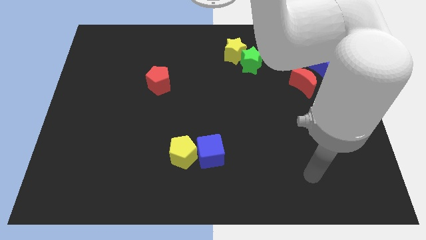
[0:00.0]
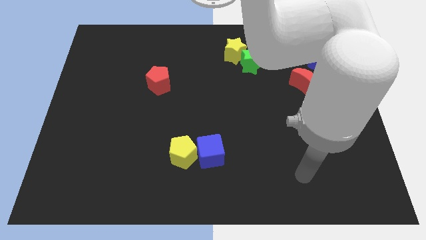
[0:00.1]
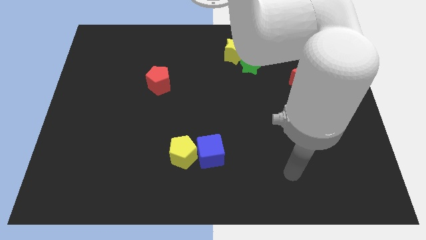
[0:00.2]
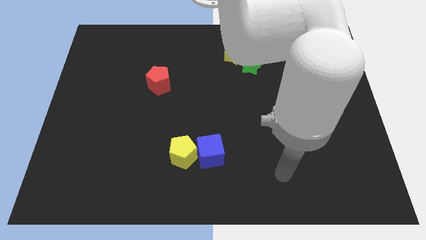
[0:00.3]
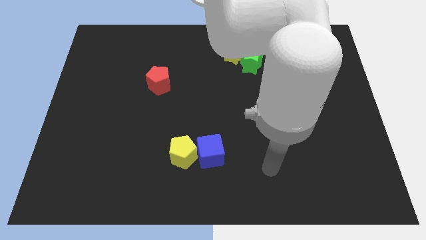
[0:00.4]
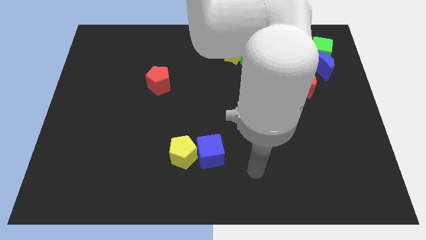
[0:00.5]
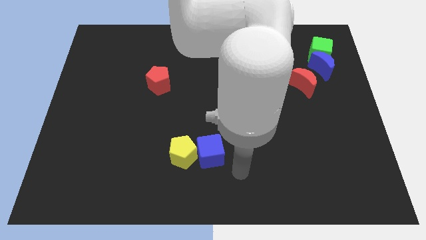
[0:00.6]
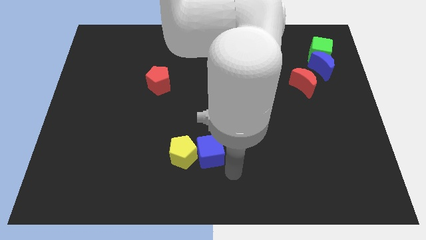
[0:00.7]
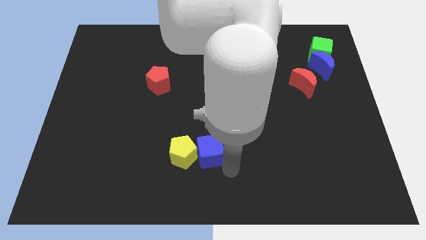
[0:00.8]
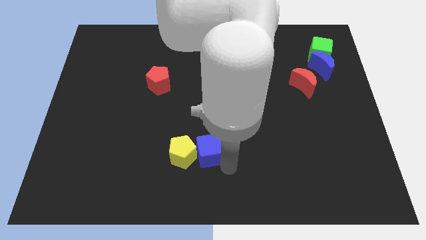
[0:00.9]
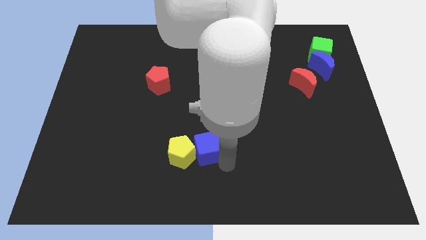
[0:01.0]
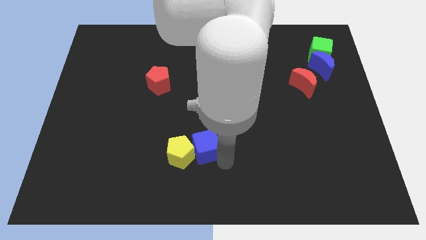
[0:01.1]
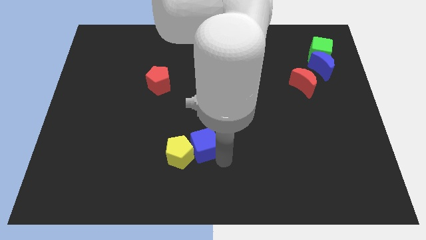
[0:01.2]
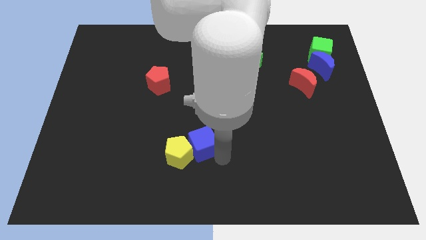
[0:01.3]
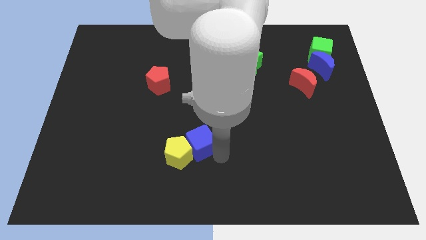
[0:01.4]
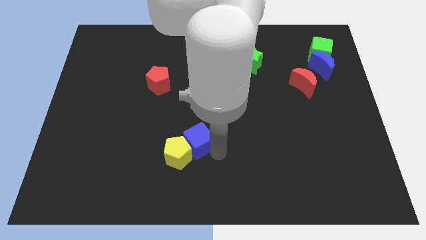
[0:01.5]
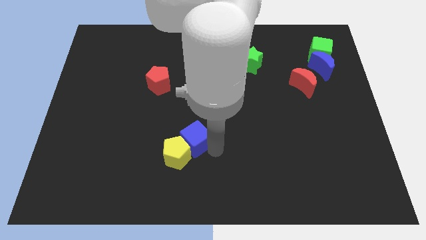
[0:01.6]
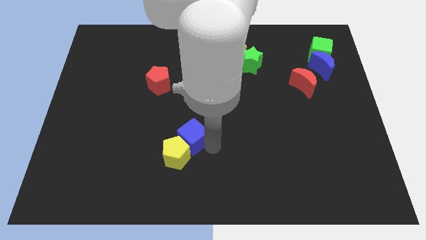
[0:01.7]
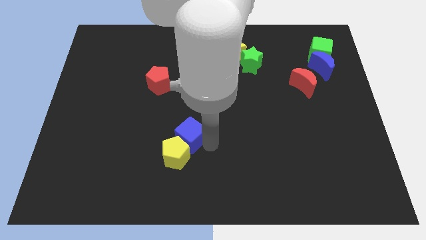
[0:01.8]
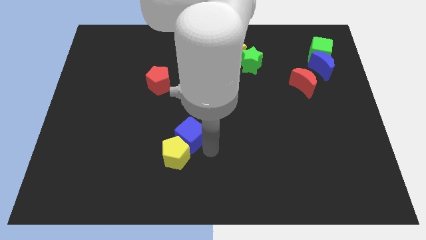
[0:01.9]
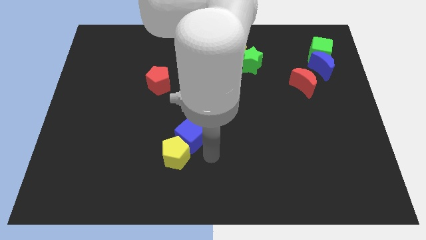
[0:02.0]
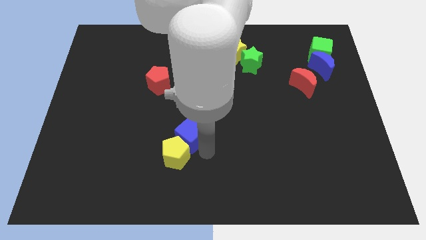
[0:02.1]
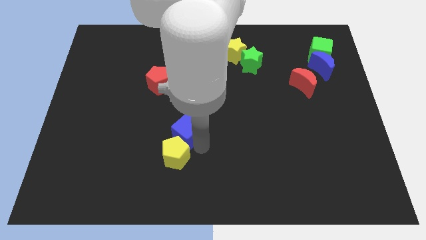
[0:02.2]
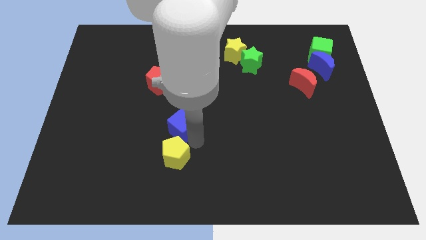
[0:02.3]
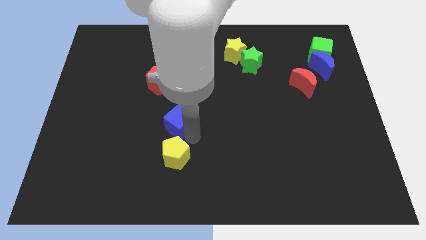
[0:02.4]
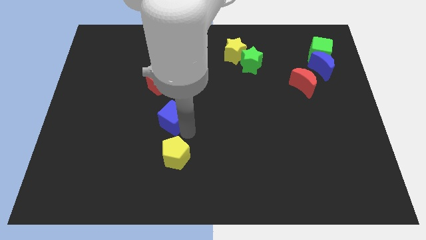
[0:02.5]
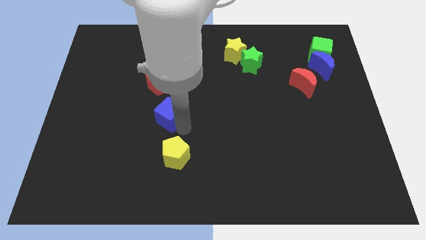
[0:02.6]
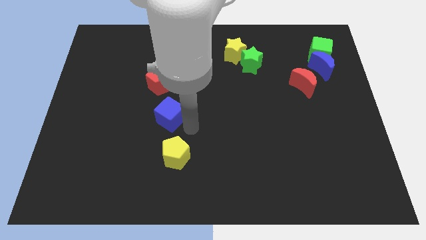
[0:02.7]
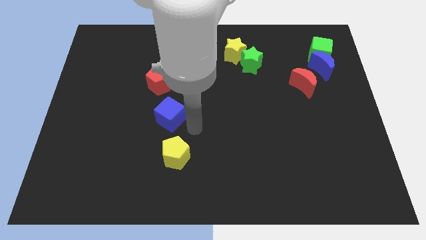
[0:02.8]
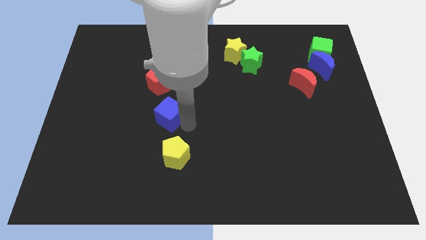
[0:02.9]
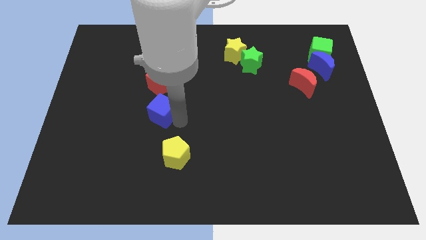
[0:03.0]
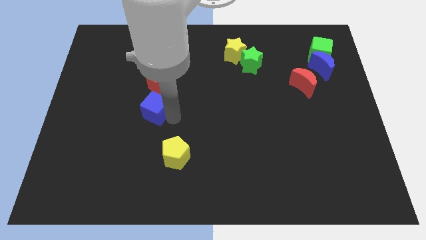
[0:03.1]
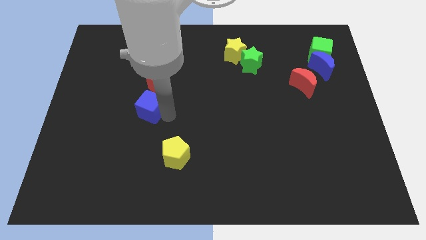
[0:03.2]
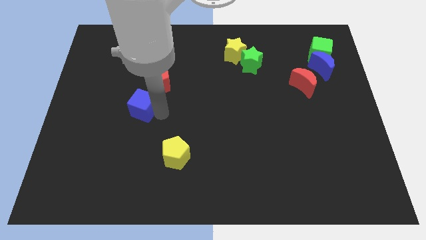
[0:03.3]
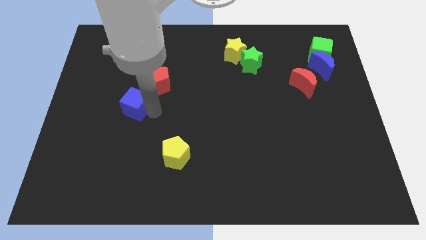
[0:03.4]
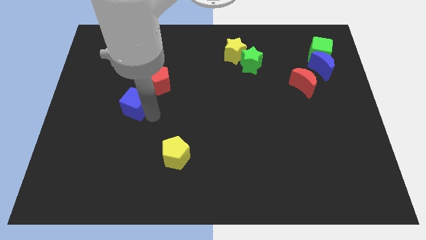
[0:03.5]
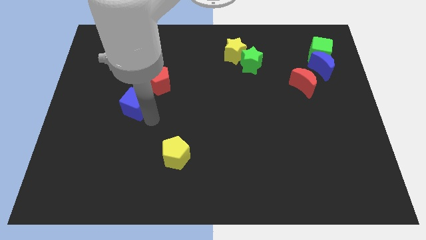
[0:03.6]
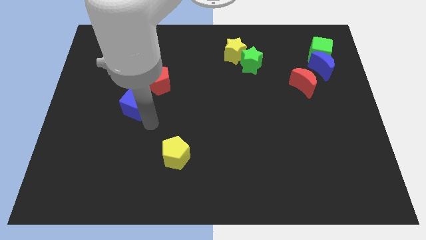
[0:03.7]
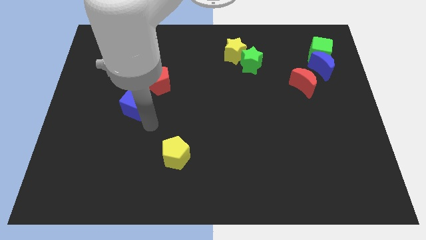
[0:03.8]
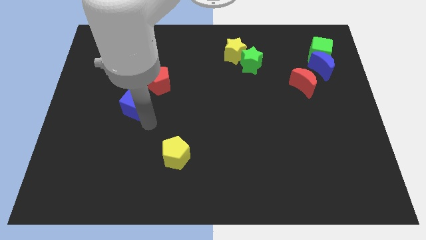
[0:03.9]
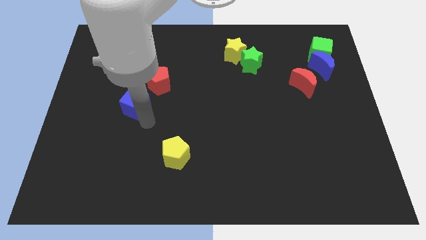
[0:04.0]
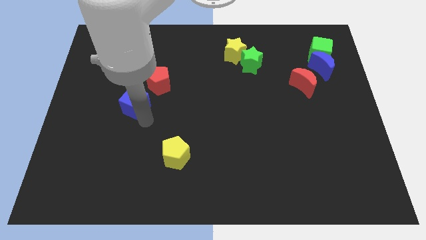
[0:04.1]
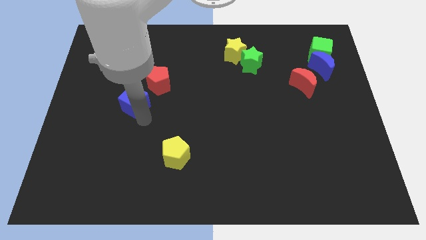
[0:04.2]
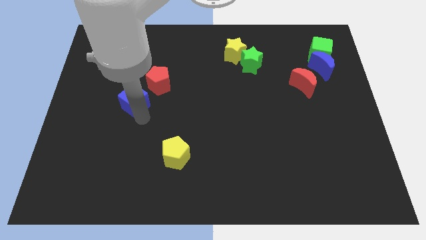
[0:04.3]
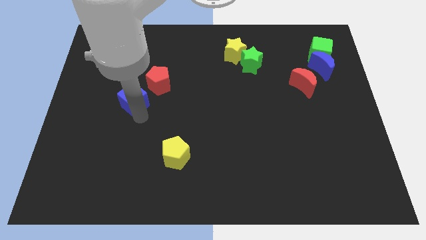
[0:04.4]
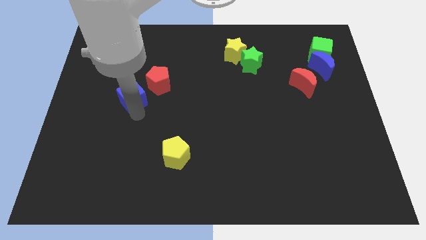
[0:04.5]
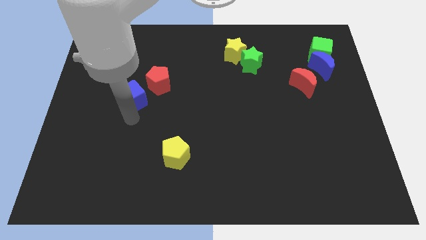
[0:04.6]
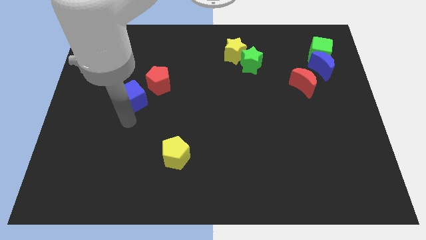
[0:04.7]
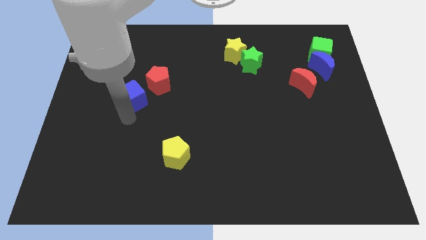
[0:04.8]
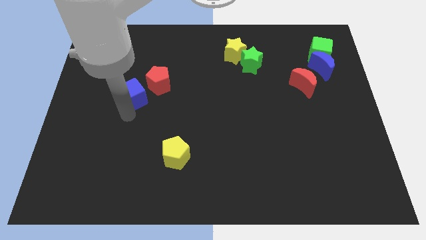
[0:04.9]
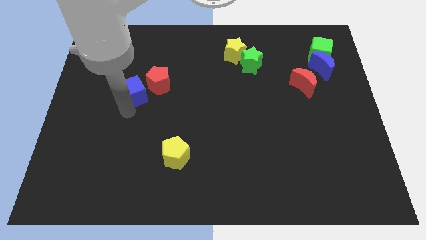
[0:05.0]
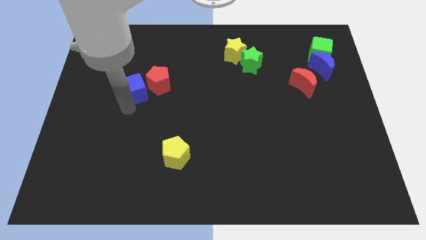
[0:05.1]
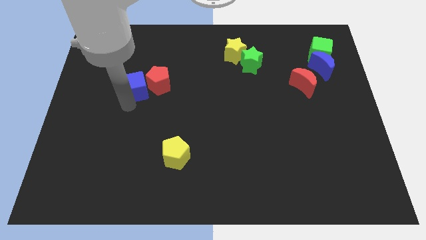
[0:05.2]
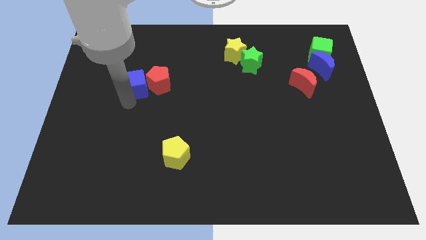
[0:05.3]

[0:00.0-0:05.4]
push the blue cube to the top left side of the red pentagon

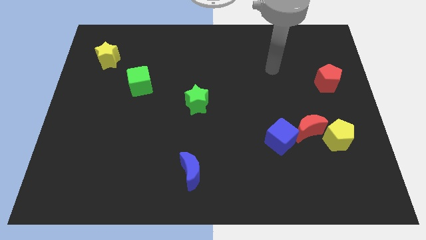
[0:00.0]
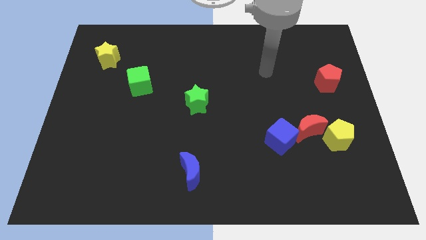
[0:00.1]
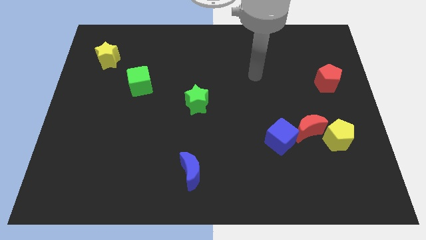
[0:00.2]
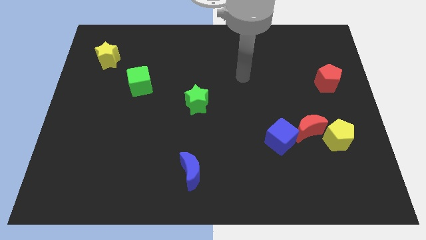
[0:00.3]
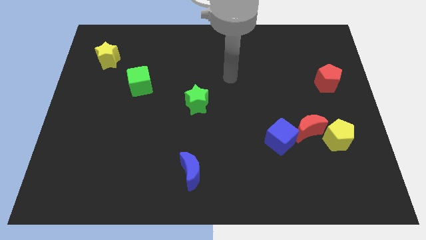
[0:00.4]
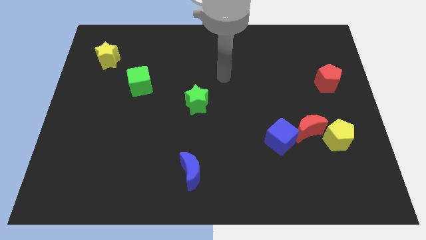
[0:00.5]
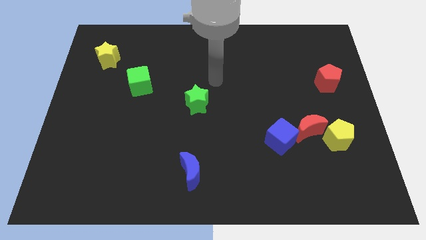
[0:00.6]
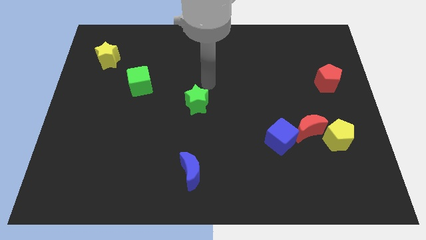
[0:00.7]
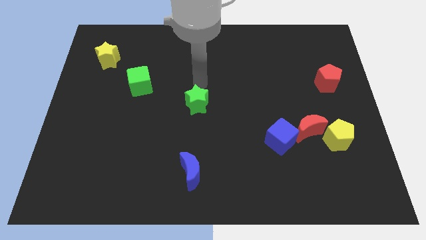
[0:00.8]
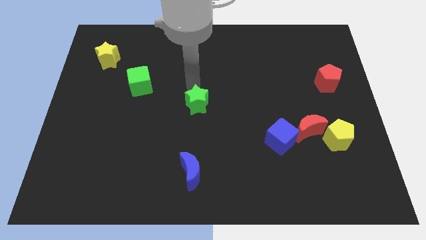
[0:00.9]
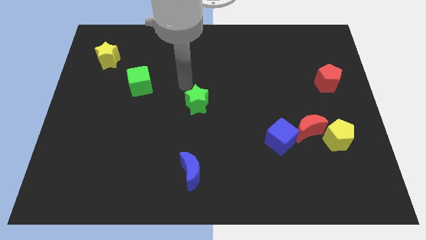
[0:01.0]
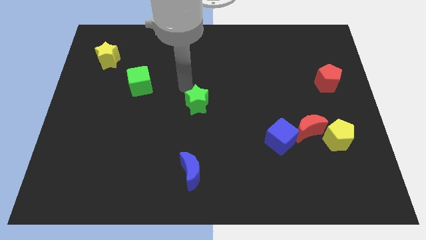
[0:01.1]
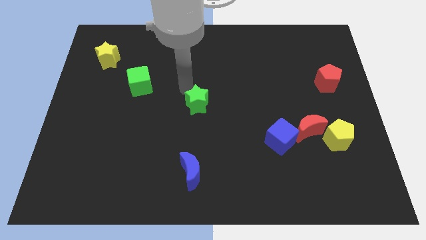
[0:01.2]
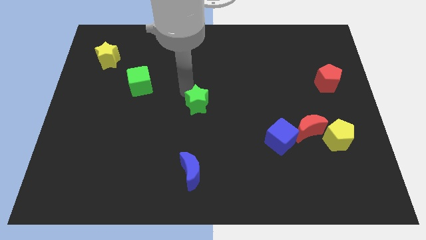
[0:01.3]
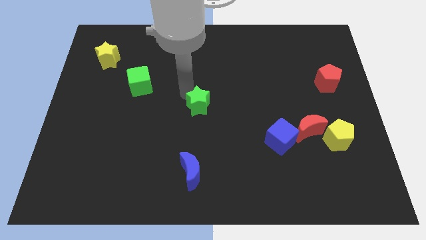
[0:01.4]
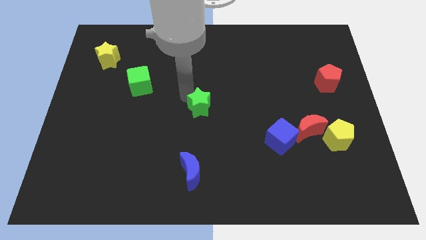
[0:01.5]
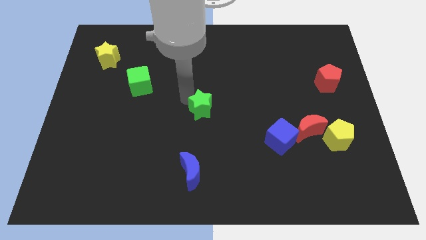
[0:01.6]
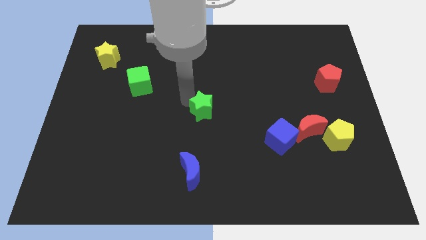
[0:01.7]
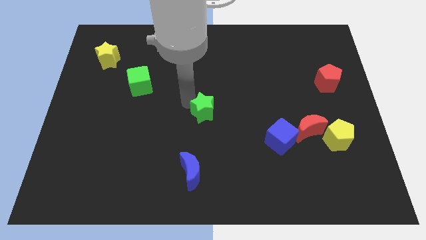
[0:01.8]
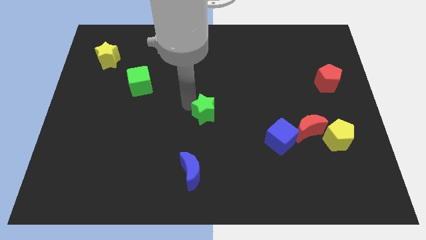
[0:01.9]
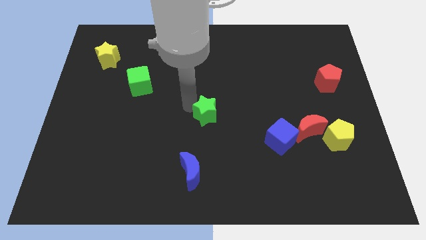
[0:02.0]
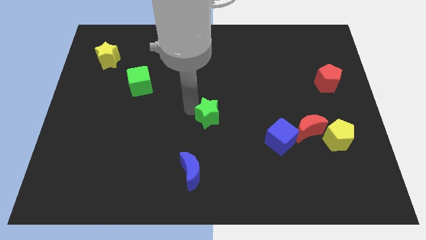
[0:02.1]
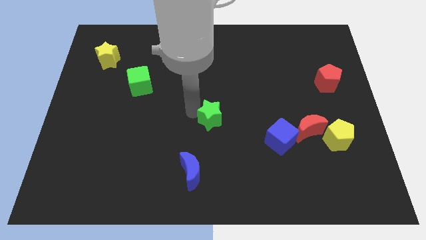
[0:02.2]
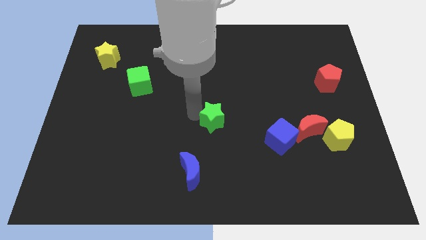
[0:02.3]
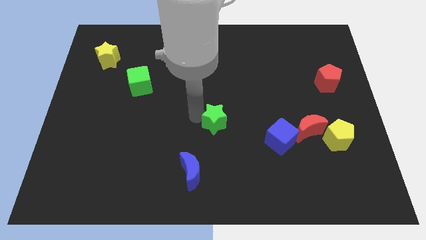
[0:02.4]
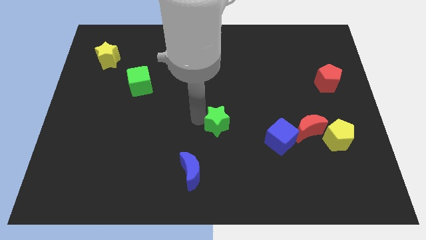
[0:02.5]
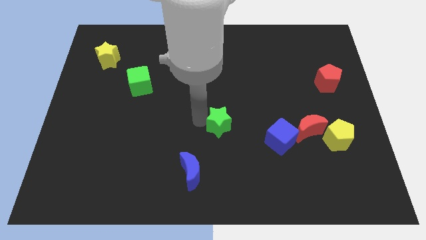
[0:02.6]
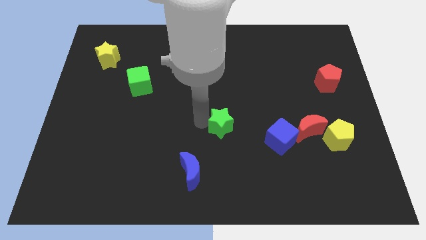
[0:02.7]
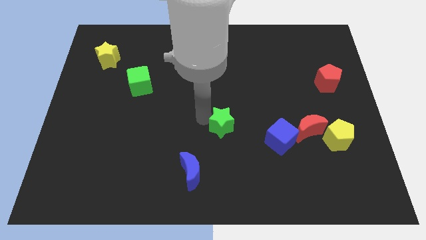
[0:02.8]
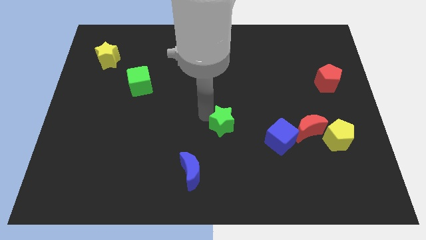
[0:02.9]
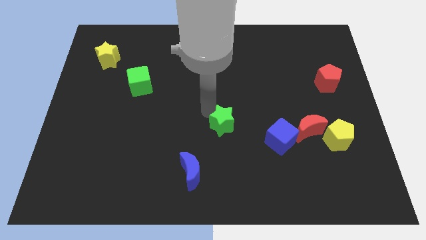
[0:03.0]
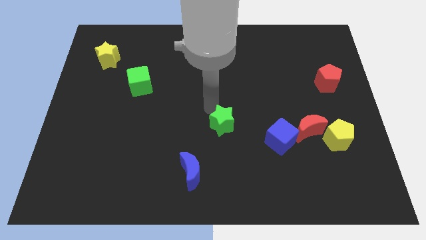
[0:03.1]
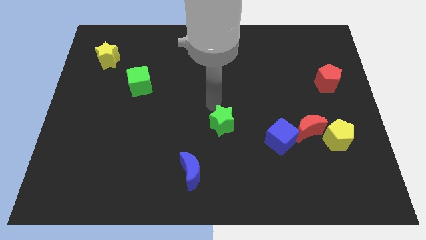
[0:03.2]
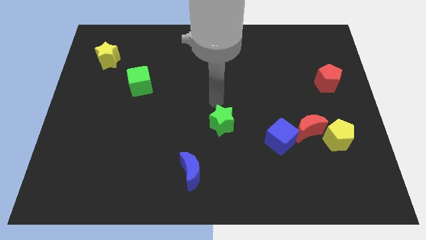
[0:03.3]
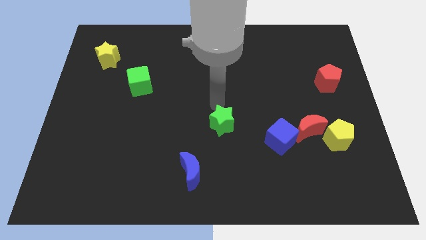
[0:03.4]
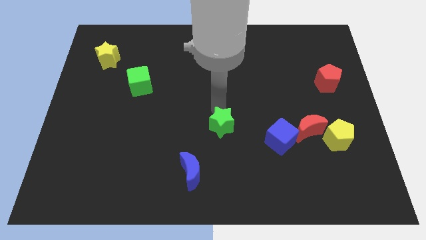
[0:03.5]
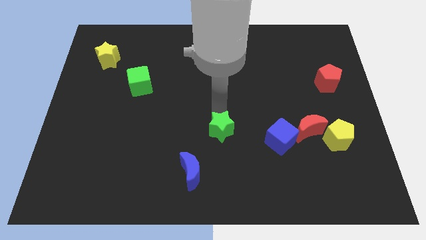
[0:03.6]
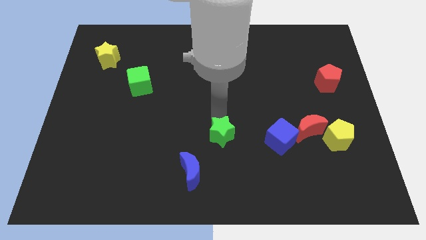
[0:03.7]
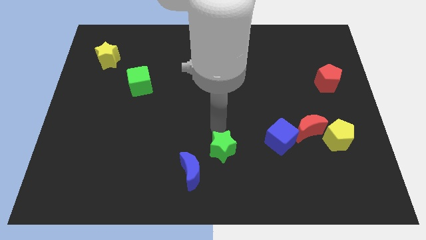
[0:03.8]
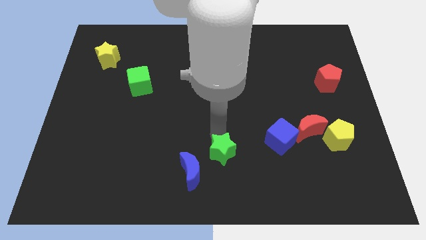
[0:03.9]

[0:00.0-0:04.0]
put the green star right of the blue moon
